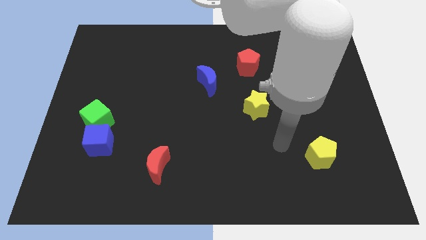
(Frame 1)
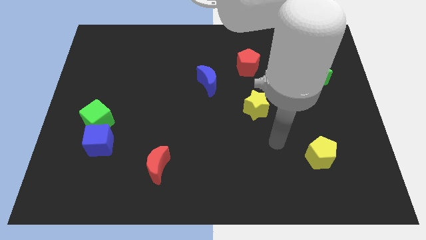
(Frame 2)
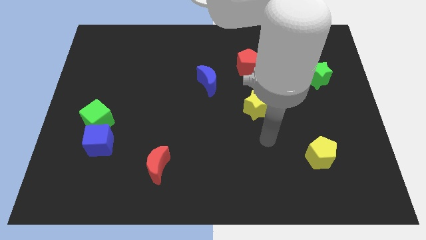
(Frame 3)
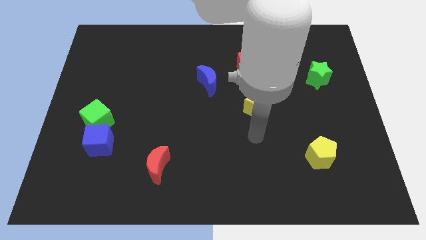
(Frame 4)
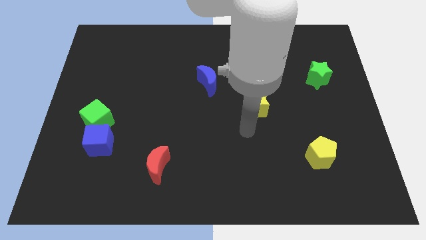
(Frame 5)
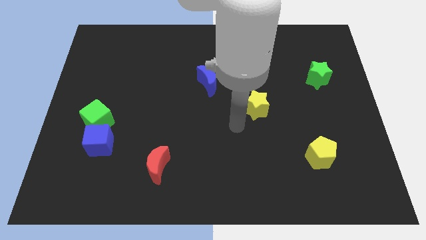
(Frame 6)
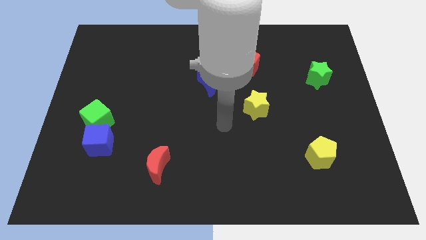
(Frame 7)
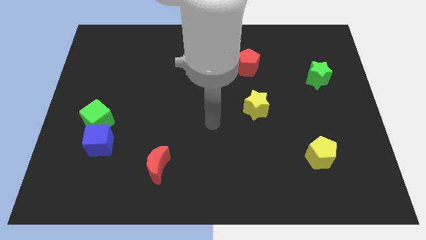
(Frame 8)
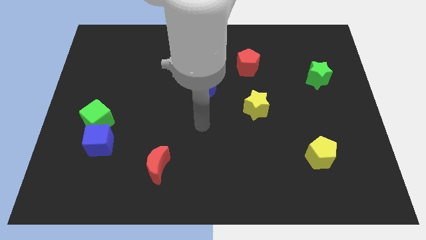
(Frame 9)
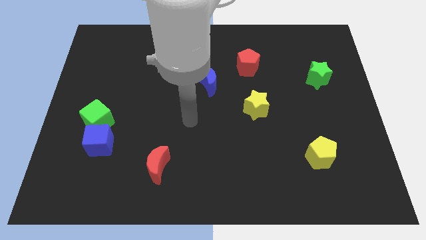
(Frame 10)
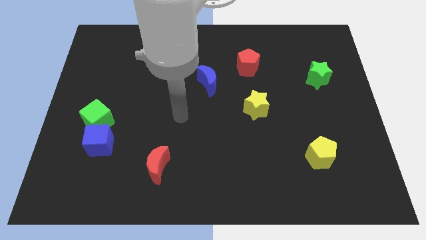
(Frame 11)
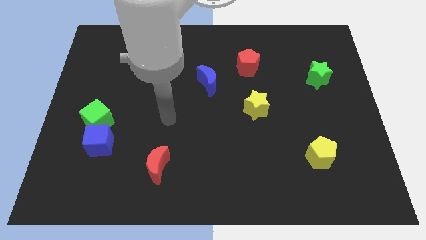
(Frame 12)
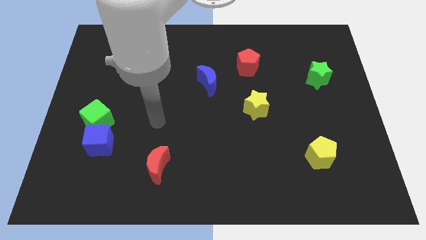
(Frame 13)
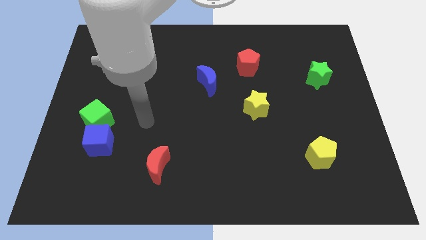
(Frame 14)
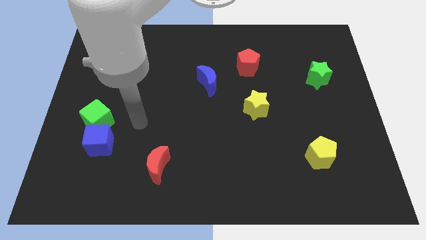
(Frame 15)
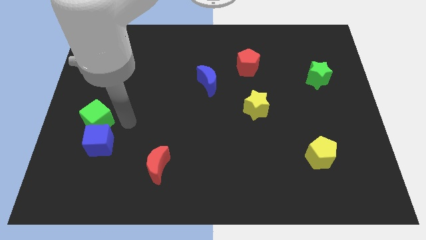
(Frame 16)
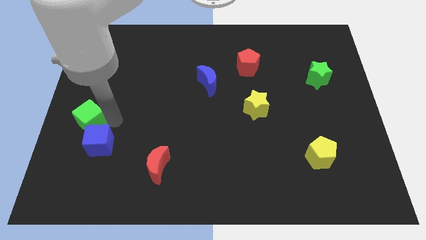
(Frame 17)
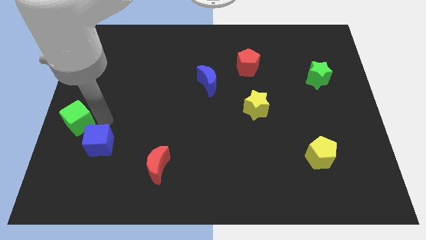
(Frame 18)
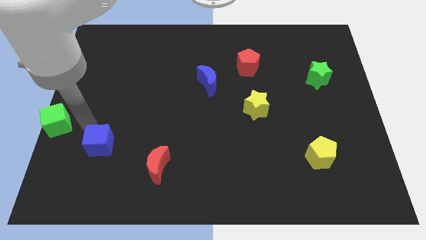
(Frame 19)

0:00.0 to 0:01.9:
move the blue cube away from the green cube

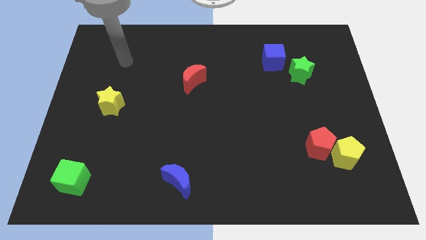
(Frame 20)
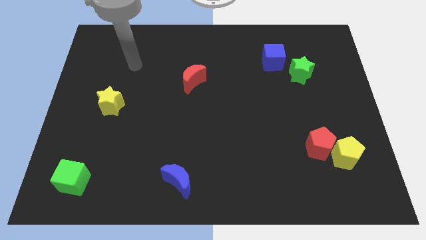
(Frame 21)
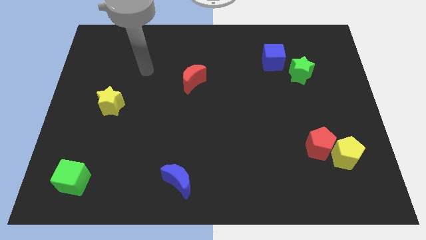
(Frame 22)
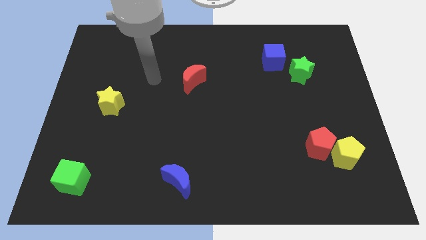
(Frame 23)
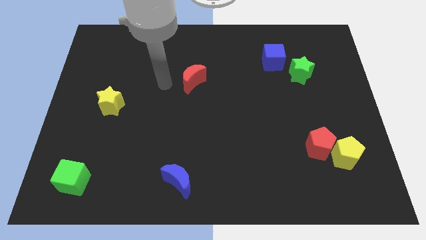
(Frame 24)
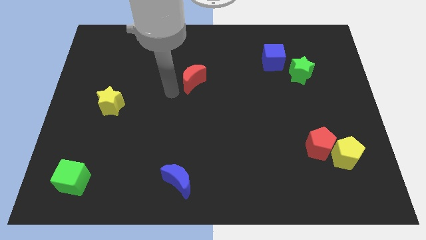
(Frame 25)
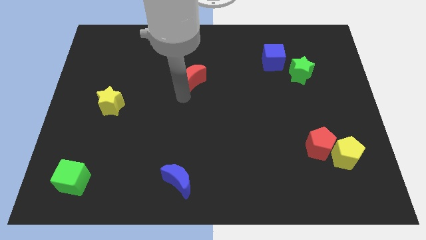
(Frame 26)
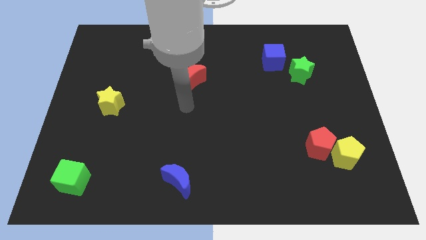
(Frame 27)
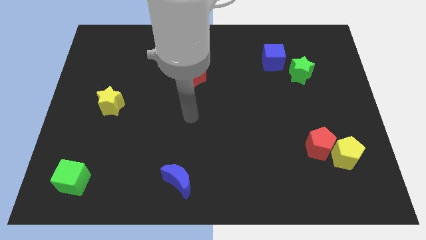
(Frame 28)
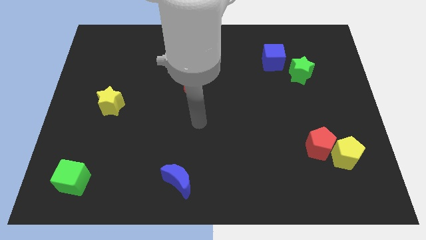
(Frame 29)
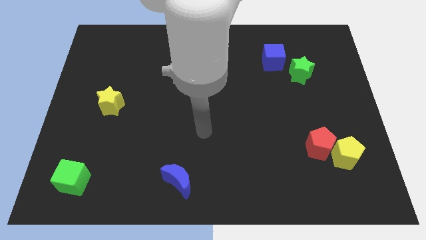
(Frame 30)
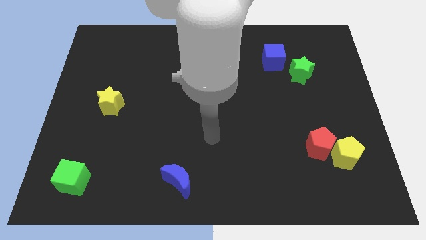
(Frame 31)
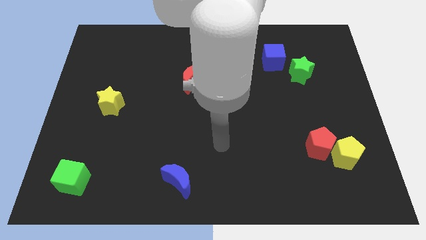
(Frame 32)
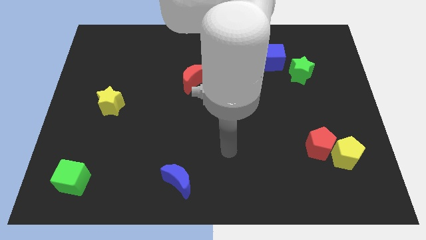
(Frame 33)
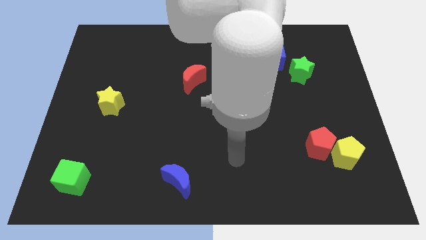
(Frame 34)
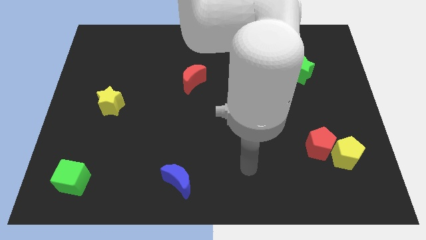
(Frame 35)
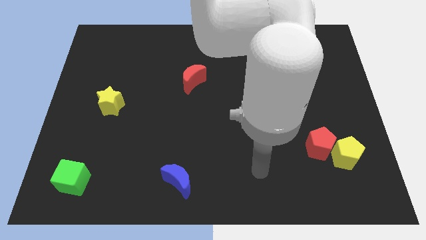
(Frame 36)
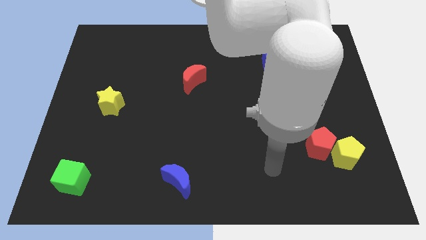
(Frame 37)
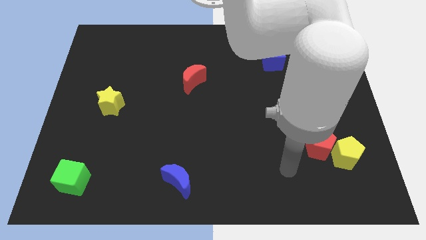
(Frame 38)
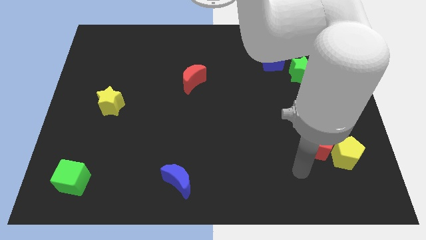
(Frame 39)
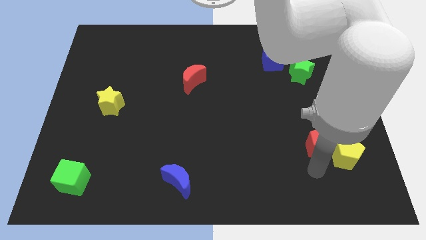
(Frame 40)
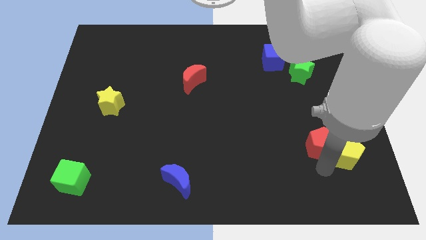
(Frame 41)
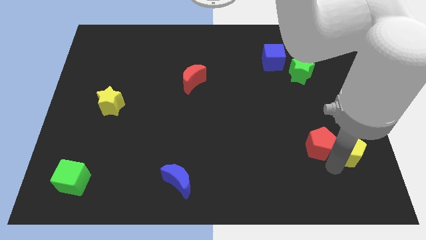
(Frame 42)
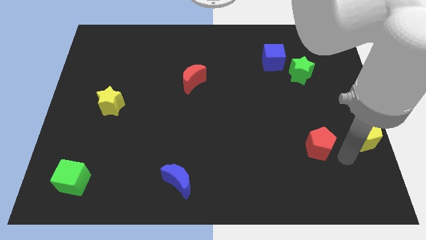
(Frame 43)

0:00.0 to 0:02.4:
move the red pentagon away from the yellow pentagon

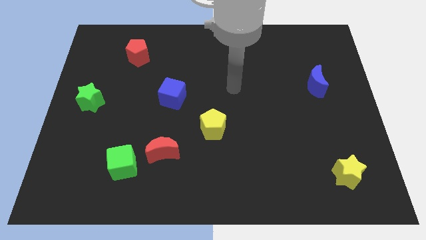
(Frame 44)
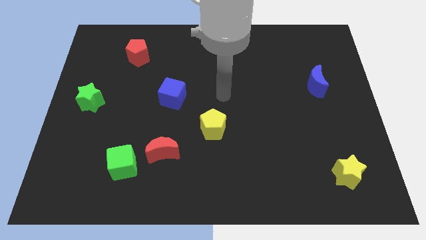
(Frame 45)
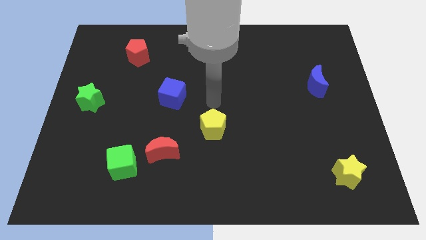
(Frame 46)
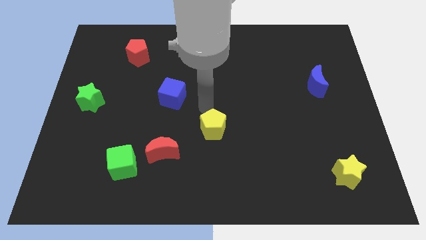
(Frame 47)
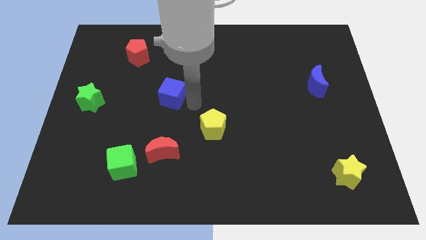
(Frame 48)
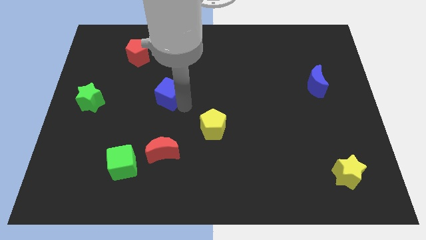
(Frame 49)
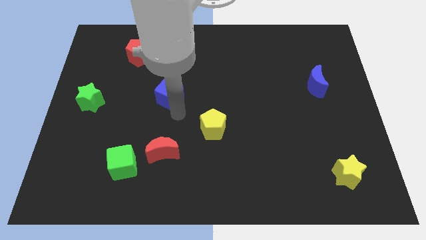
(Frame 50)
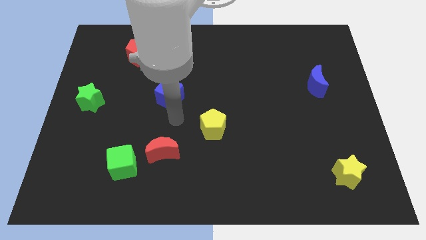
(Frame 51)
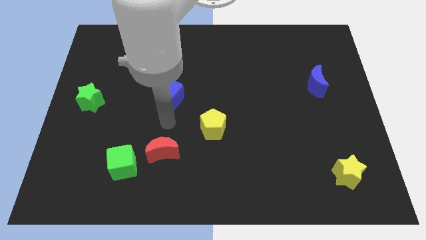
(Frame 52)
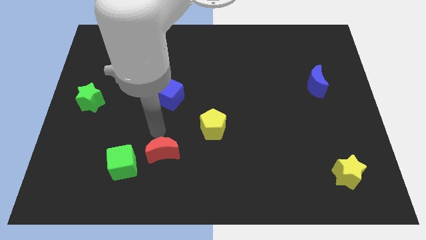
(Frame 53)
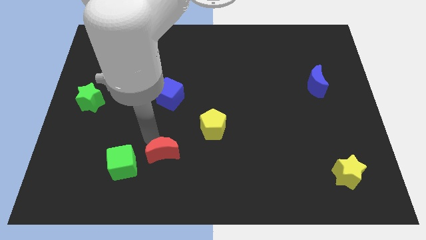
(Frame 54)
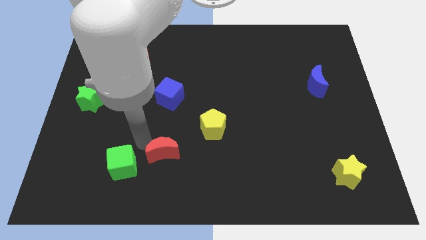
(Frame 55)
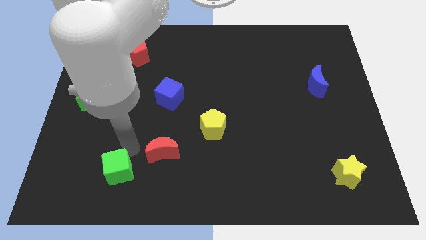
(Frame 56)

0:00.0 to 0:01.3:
pull the red moon apart from the green cube

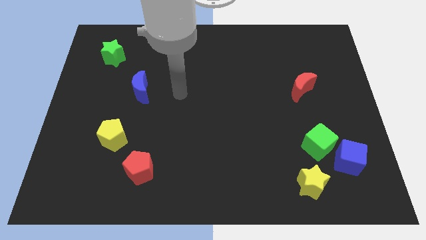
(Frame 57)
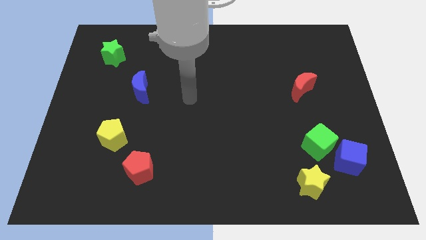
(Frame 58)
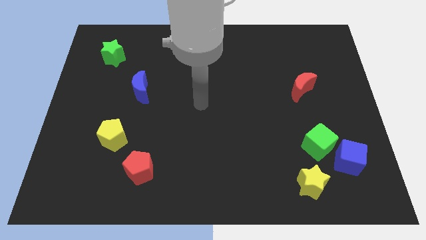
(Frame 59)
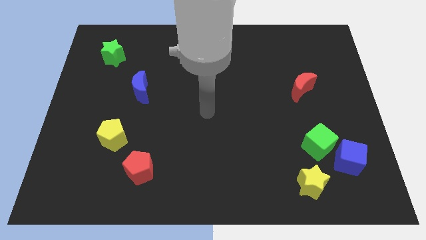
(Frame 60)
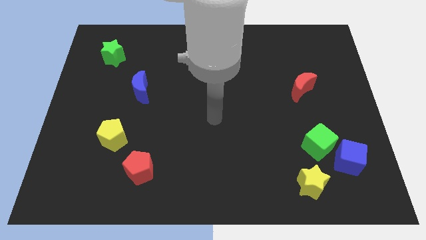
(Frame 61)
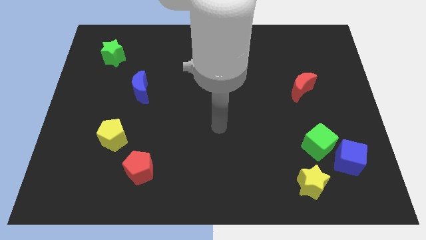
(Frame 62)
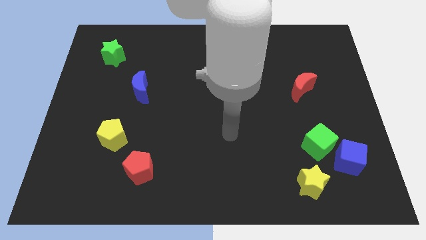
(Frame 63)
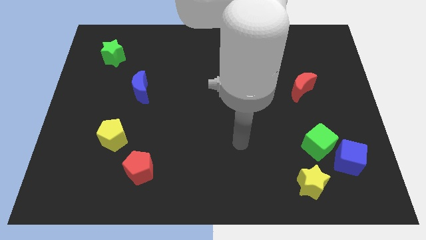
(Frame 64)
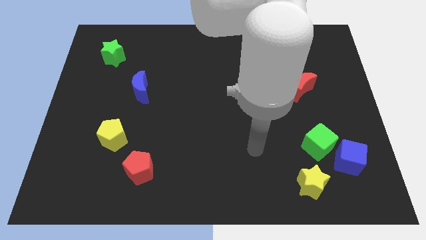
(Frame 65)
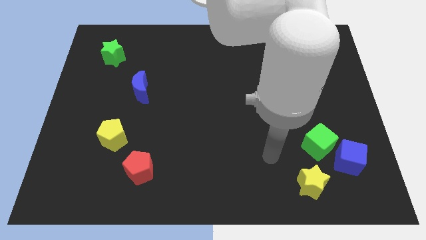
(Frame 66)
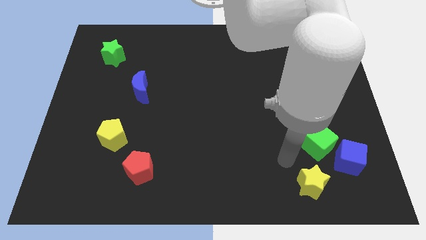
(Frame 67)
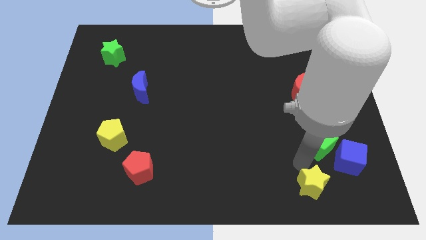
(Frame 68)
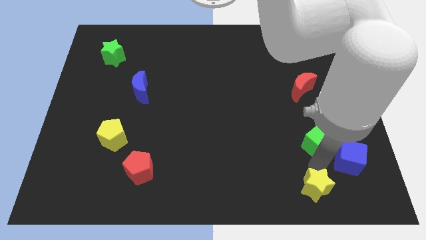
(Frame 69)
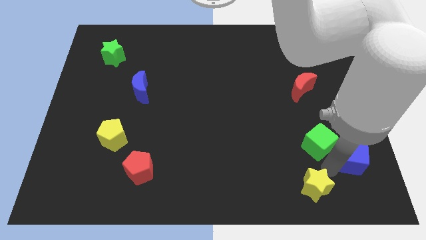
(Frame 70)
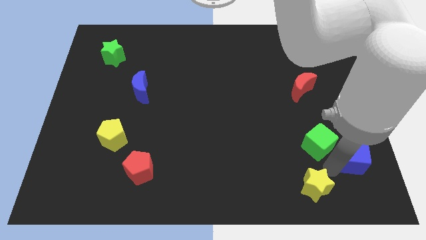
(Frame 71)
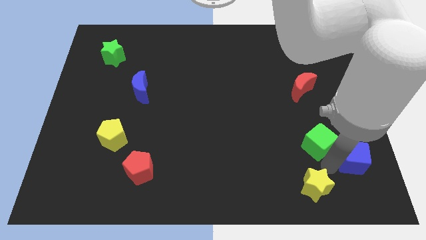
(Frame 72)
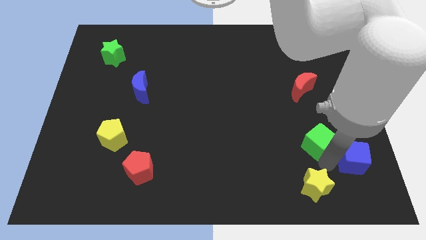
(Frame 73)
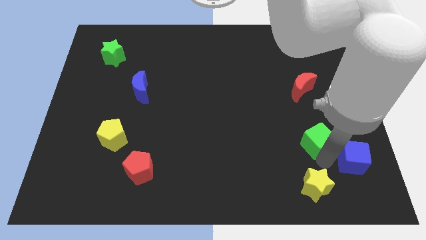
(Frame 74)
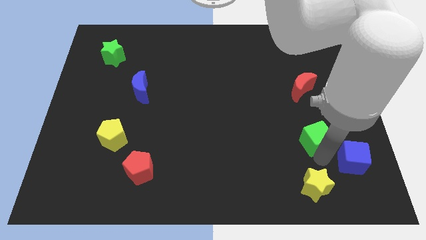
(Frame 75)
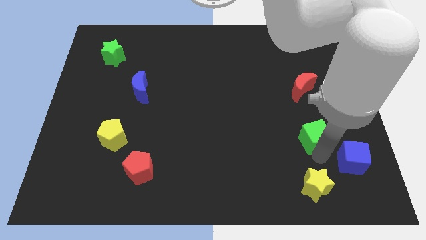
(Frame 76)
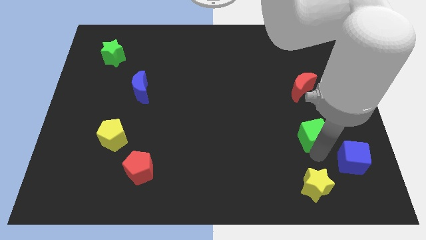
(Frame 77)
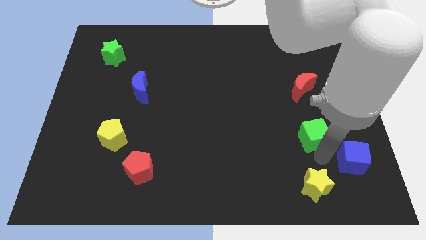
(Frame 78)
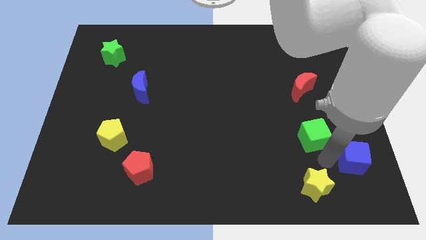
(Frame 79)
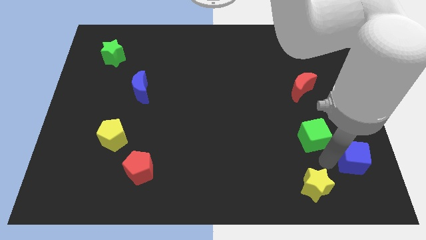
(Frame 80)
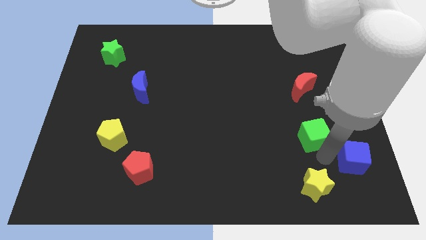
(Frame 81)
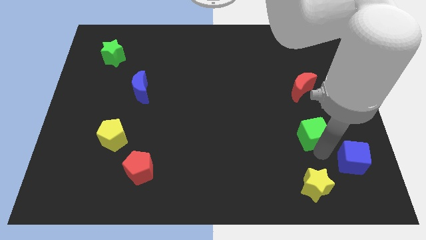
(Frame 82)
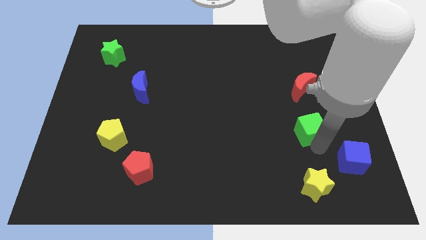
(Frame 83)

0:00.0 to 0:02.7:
move the green cube away from the blue cube and yellow star

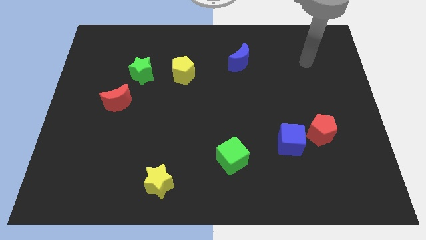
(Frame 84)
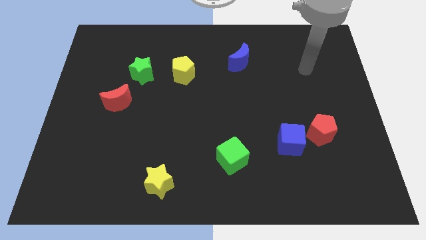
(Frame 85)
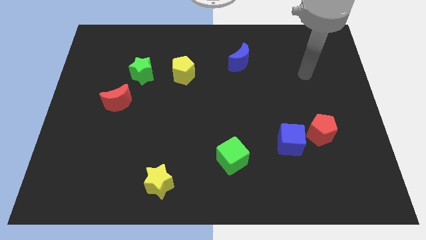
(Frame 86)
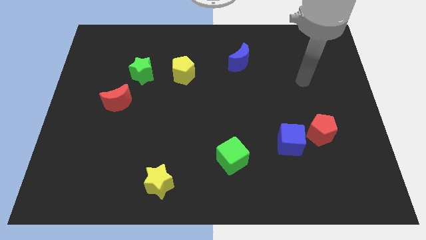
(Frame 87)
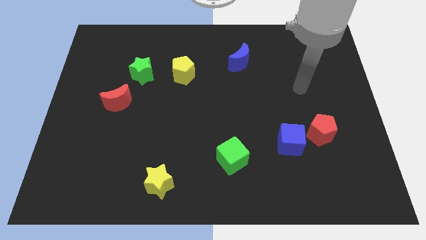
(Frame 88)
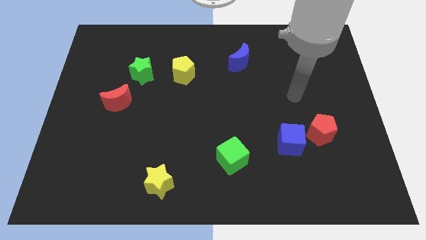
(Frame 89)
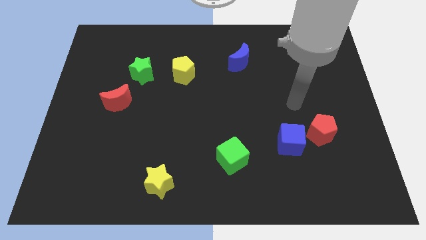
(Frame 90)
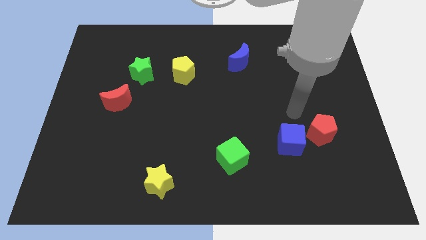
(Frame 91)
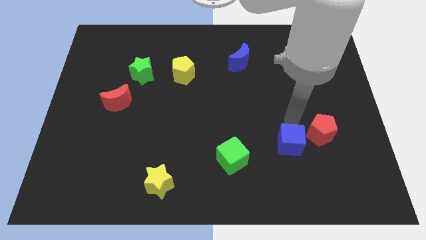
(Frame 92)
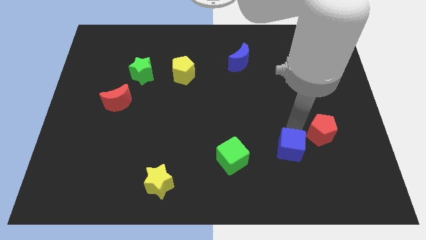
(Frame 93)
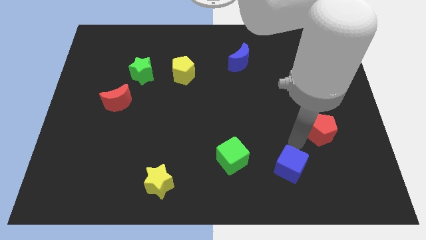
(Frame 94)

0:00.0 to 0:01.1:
move the red pentagon away from the blue cube
